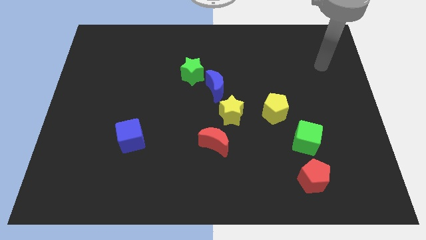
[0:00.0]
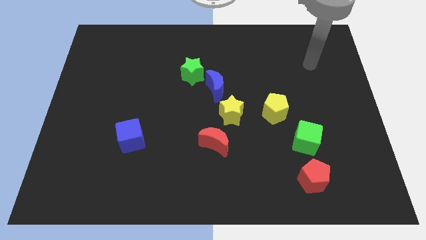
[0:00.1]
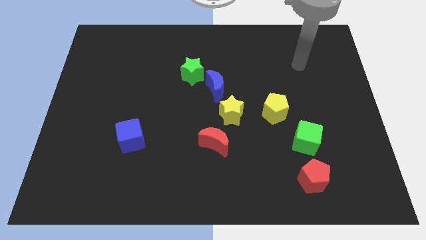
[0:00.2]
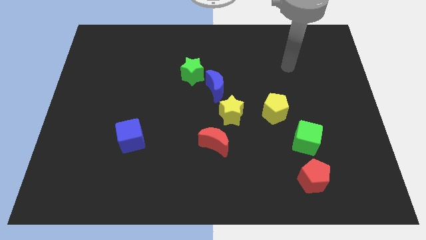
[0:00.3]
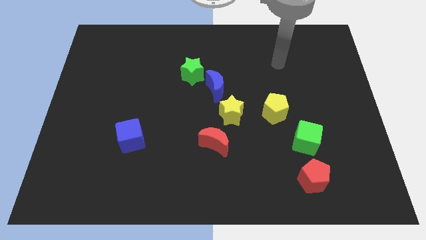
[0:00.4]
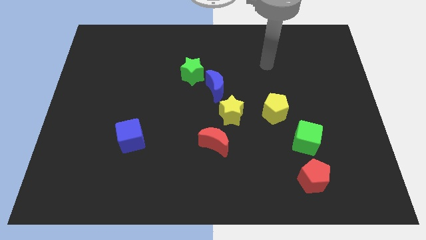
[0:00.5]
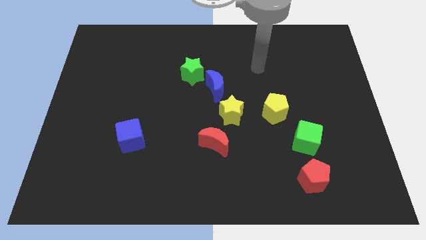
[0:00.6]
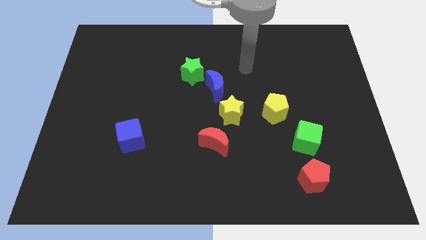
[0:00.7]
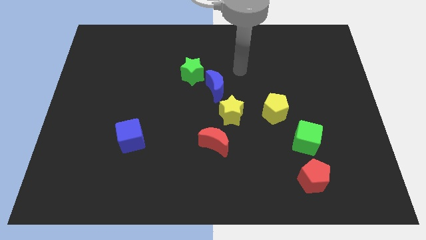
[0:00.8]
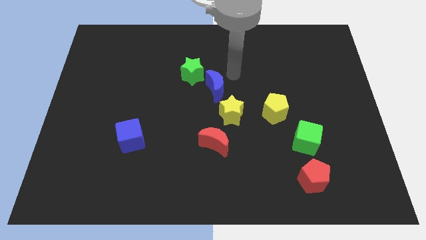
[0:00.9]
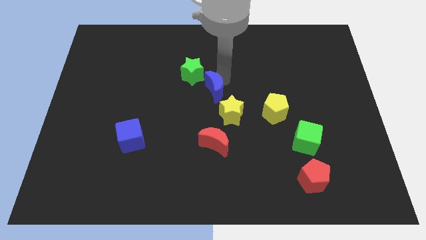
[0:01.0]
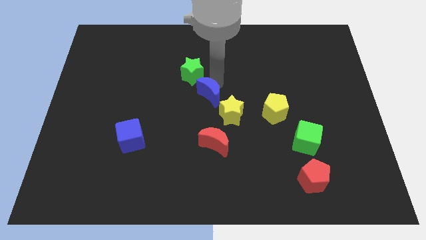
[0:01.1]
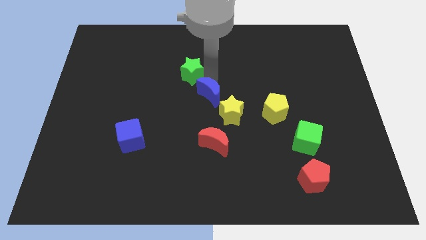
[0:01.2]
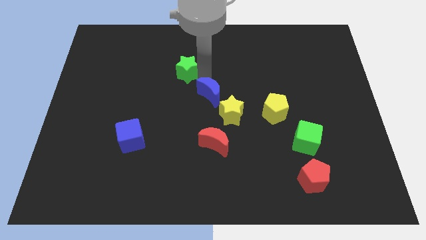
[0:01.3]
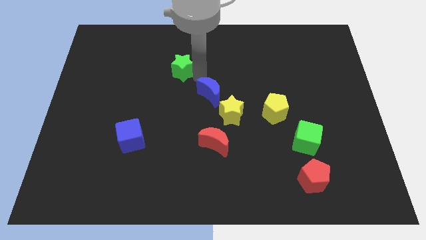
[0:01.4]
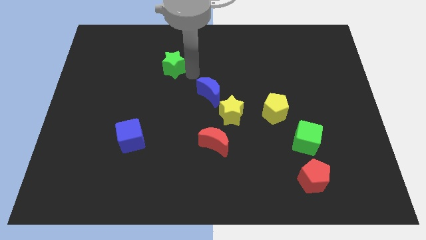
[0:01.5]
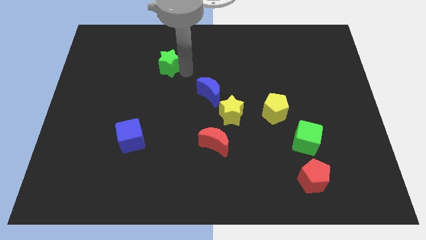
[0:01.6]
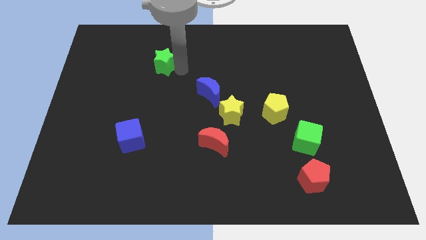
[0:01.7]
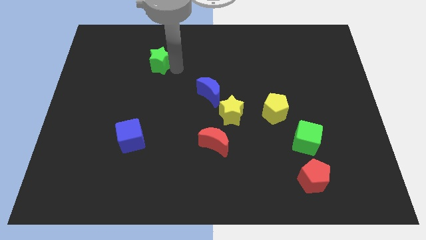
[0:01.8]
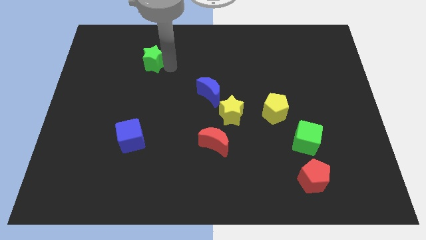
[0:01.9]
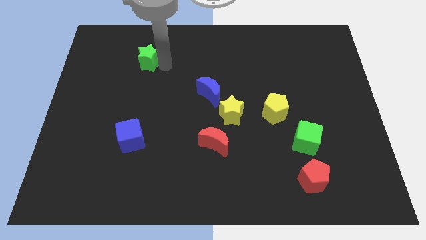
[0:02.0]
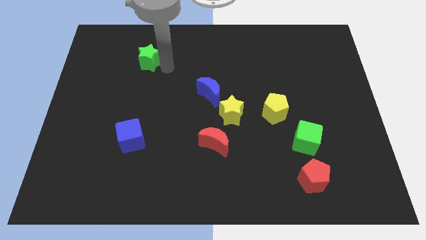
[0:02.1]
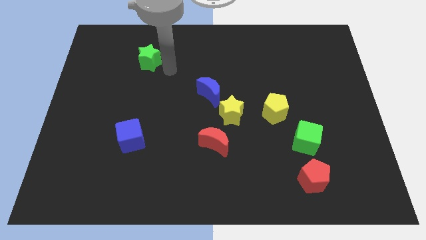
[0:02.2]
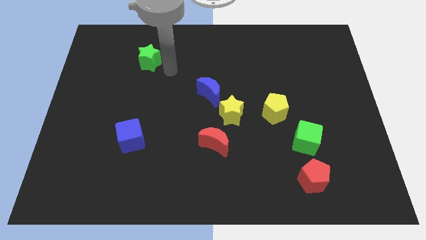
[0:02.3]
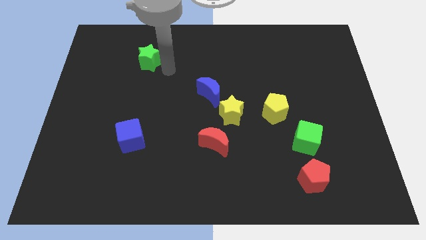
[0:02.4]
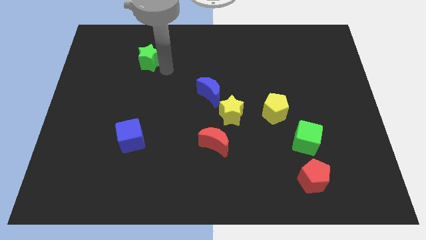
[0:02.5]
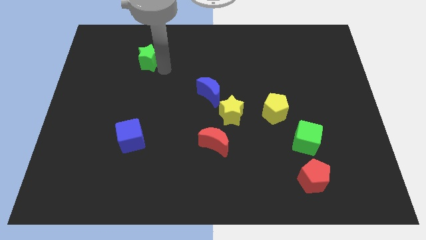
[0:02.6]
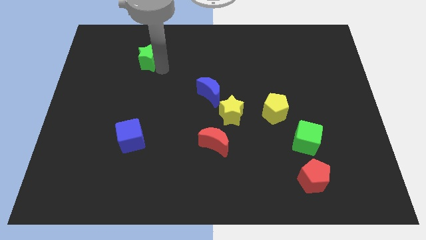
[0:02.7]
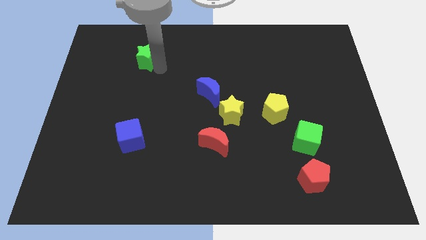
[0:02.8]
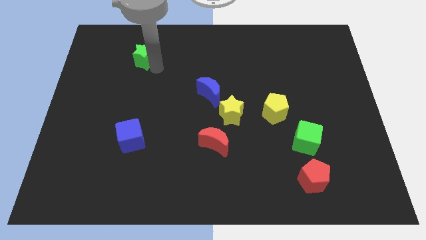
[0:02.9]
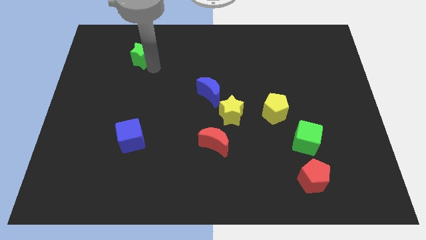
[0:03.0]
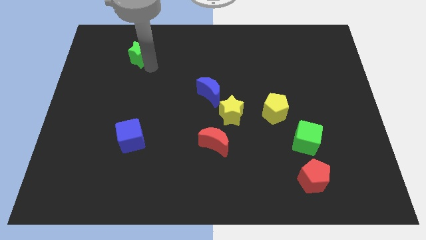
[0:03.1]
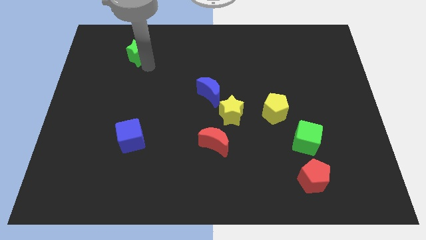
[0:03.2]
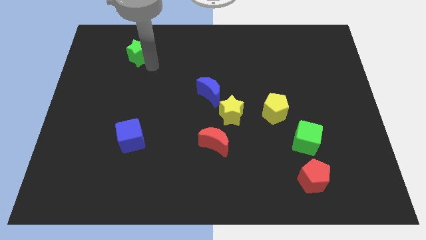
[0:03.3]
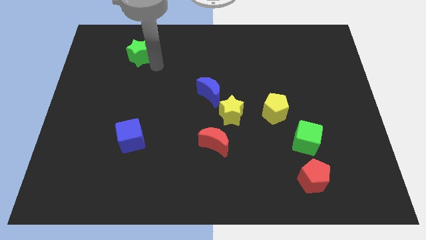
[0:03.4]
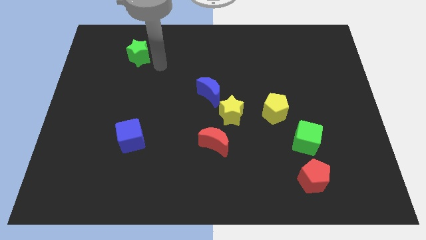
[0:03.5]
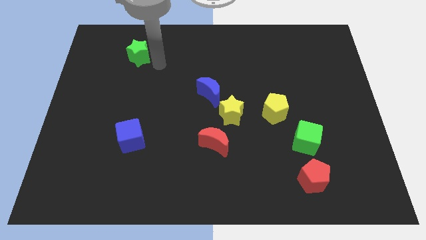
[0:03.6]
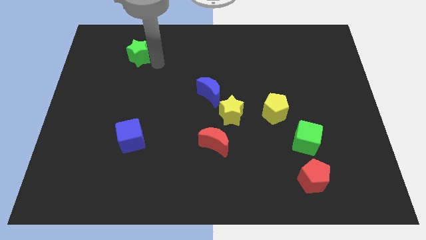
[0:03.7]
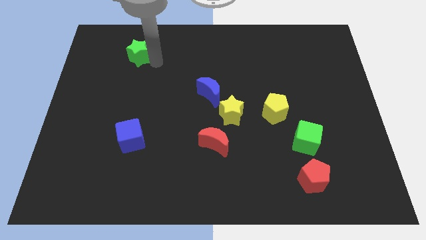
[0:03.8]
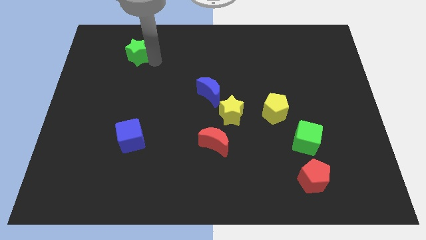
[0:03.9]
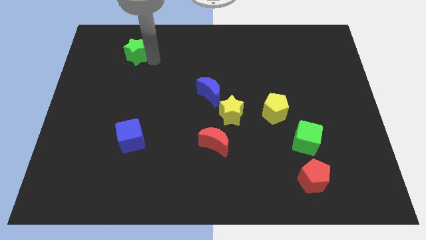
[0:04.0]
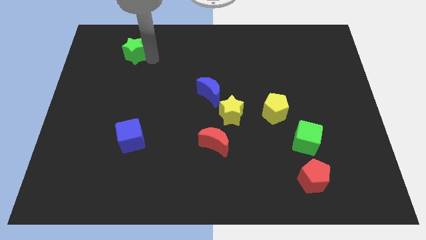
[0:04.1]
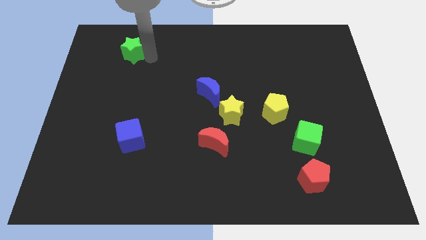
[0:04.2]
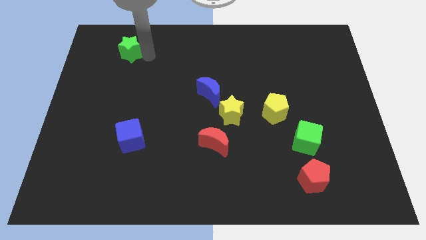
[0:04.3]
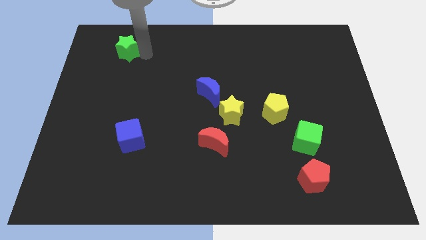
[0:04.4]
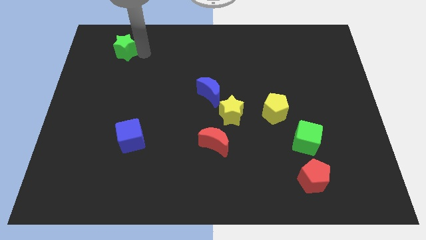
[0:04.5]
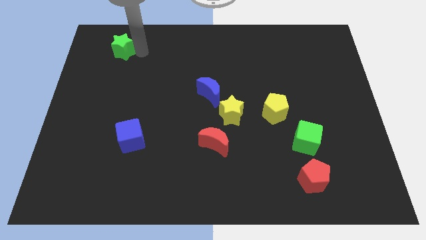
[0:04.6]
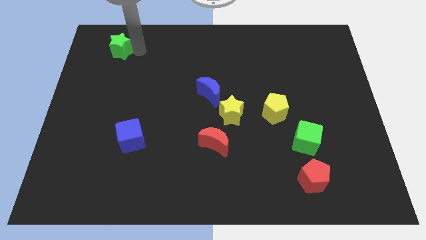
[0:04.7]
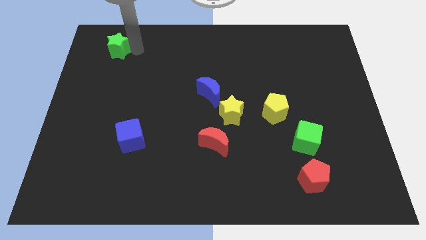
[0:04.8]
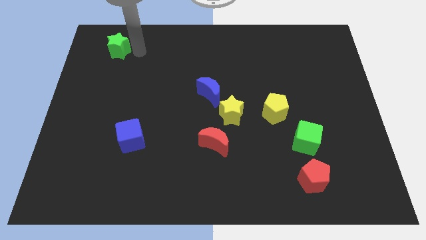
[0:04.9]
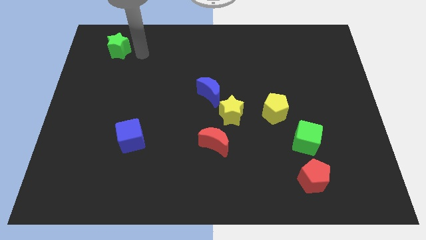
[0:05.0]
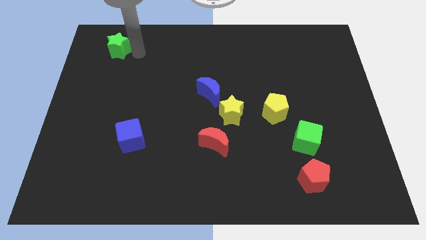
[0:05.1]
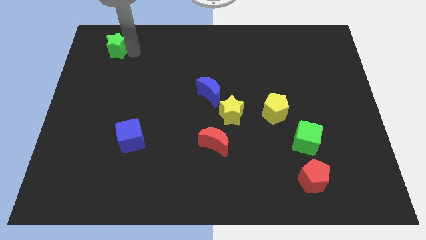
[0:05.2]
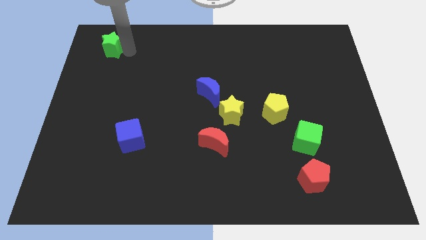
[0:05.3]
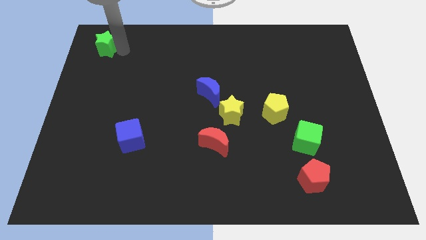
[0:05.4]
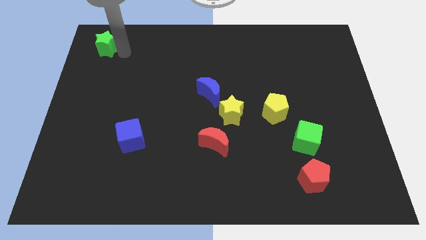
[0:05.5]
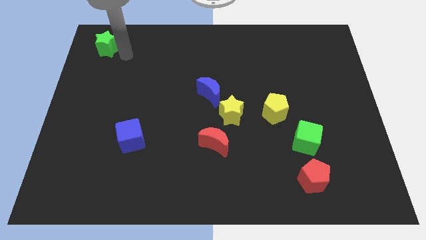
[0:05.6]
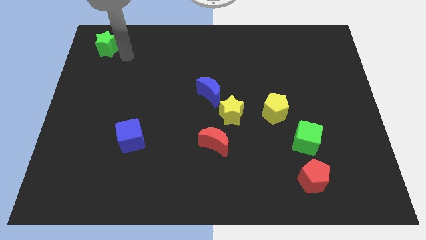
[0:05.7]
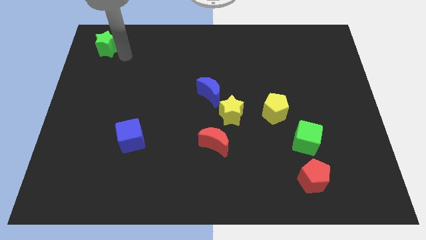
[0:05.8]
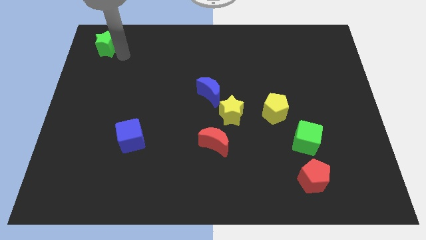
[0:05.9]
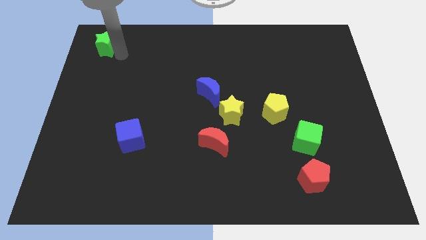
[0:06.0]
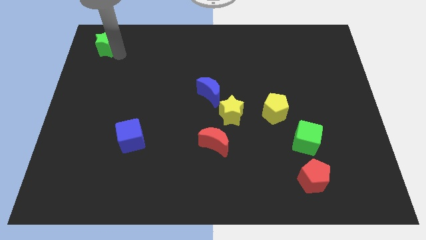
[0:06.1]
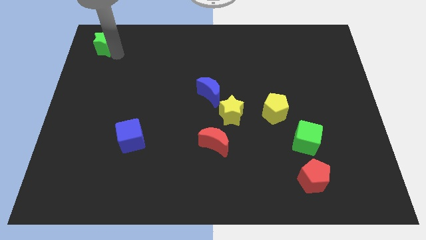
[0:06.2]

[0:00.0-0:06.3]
slide the green star to the upper left corner
